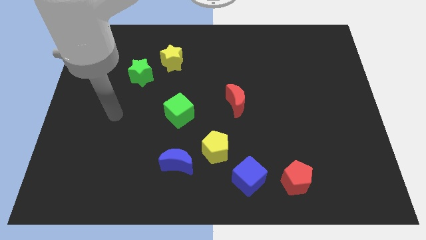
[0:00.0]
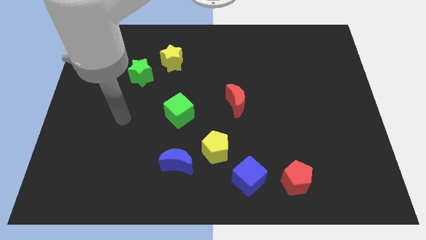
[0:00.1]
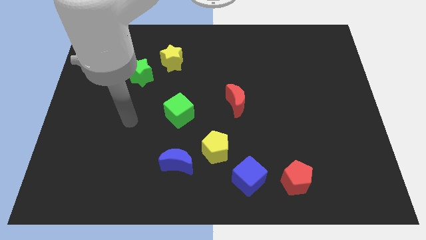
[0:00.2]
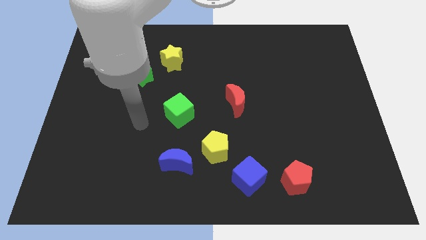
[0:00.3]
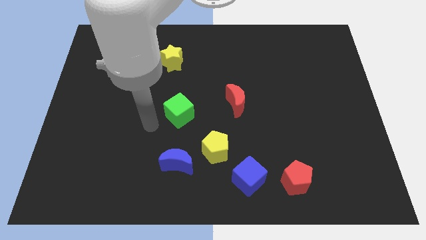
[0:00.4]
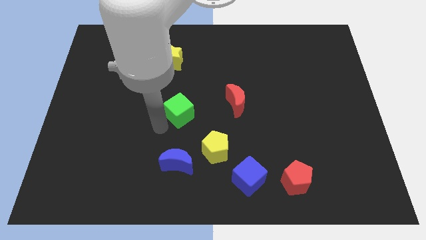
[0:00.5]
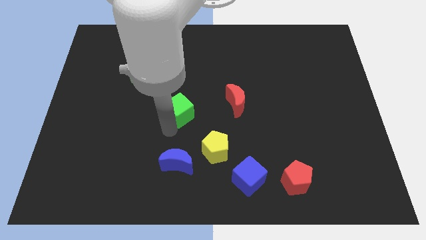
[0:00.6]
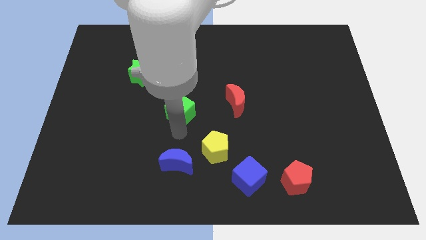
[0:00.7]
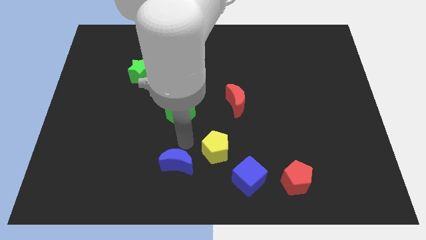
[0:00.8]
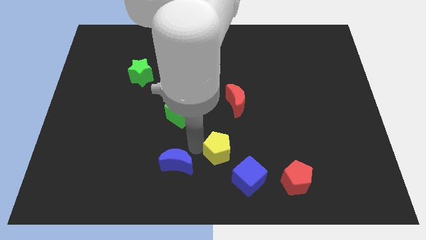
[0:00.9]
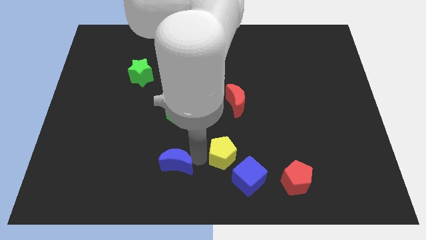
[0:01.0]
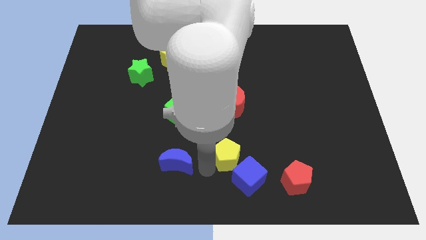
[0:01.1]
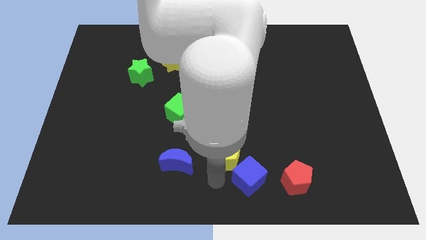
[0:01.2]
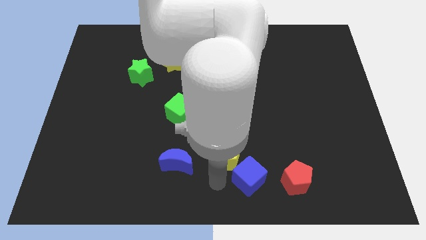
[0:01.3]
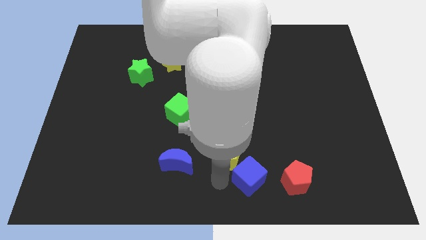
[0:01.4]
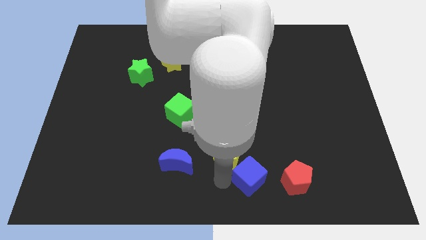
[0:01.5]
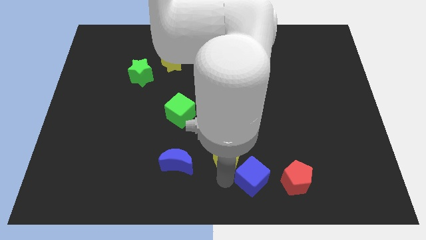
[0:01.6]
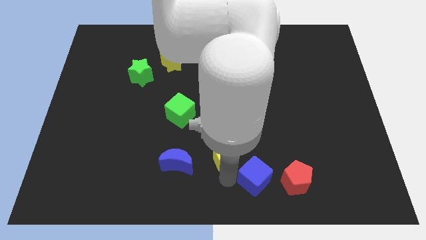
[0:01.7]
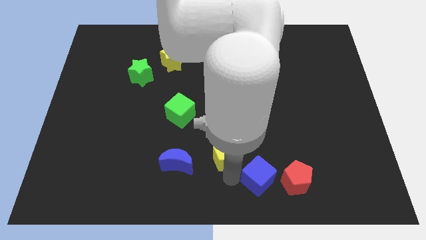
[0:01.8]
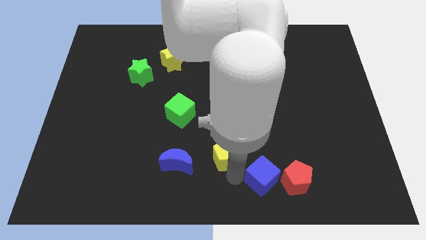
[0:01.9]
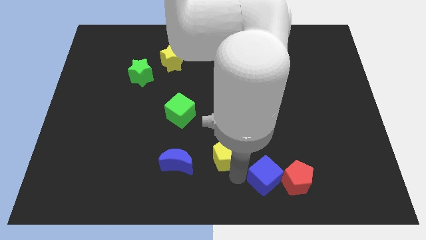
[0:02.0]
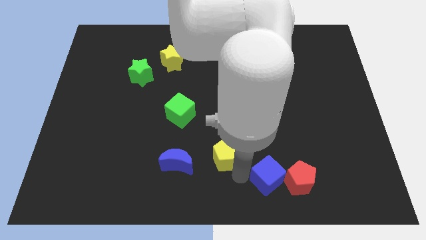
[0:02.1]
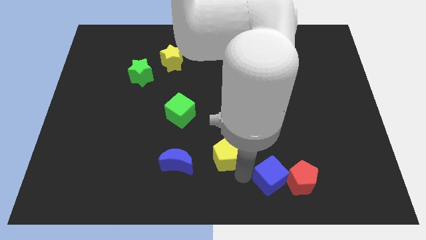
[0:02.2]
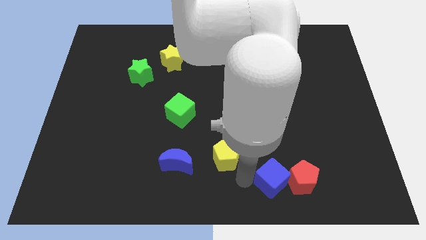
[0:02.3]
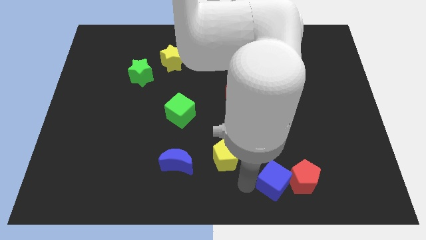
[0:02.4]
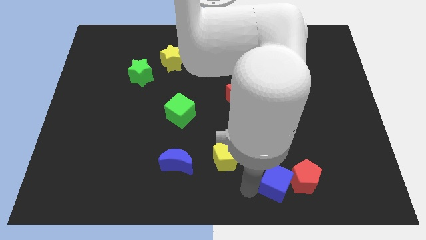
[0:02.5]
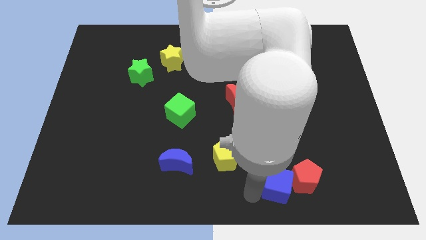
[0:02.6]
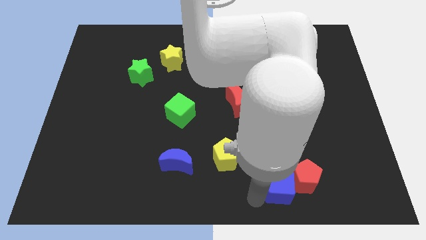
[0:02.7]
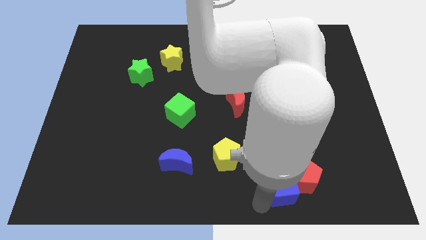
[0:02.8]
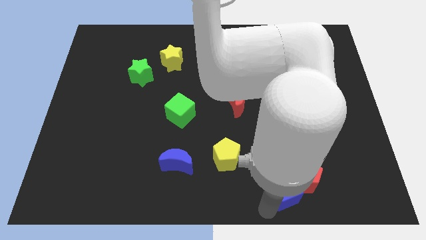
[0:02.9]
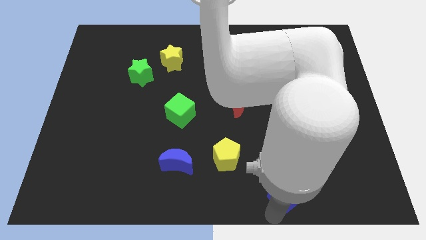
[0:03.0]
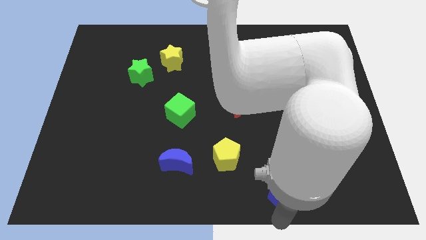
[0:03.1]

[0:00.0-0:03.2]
slightly move the blue cube right

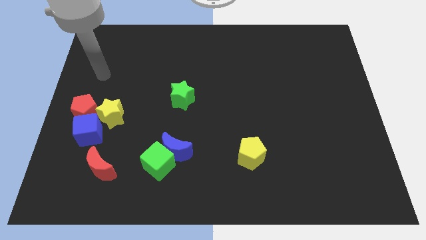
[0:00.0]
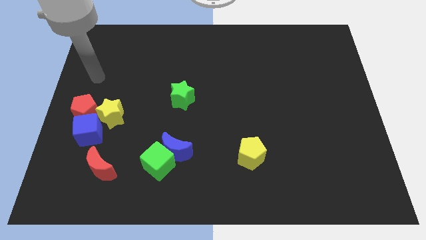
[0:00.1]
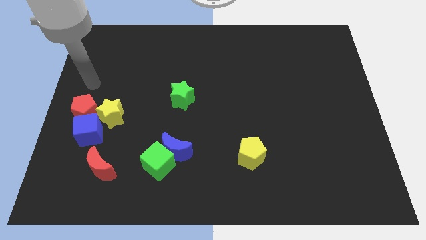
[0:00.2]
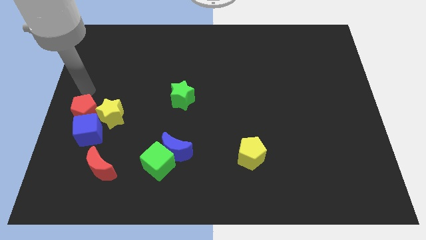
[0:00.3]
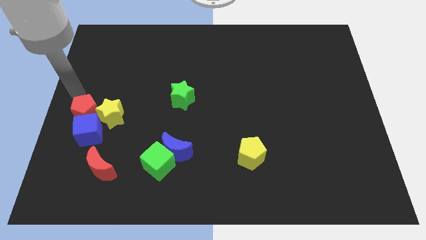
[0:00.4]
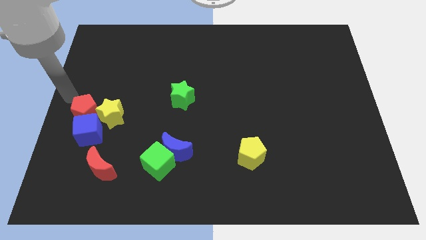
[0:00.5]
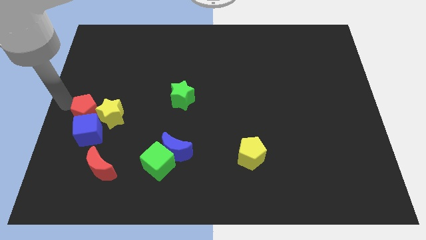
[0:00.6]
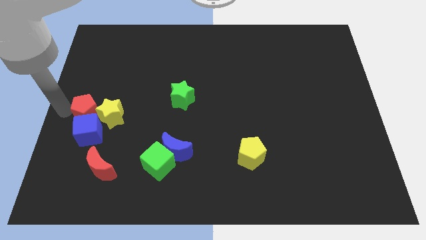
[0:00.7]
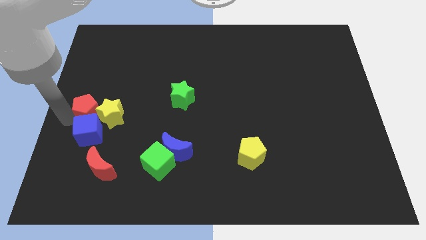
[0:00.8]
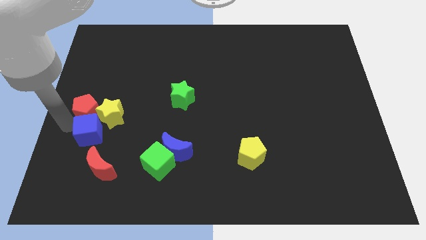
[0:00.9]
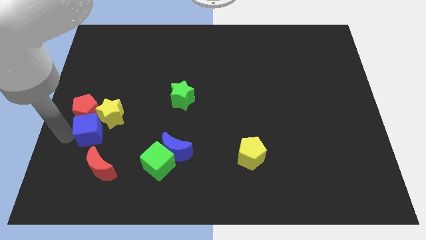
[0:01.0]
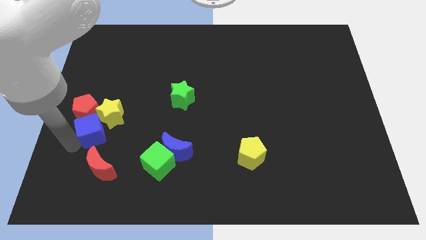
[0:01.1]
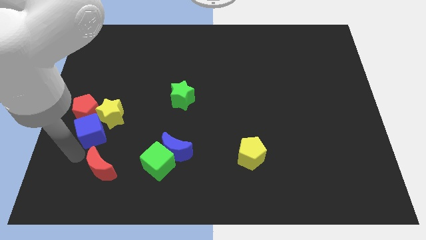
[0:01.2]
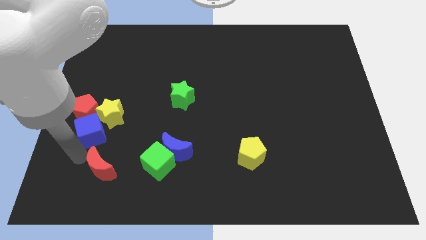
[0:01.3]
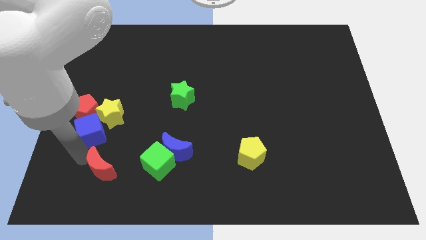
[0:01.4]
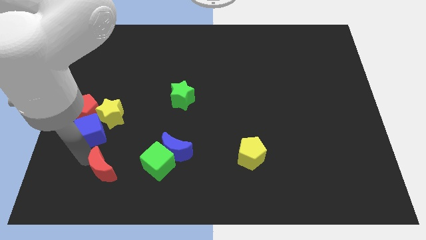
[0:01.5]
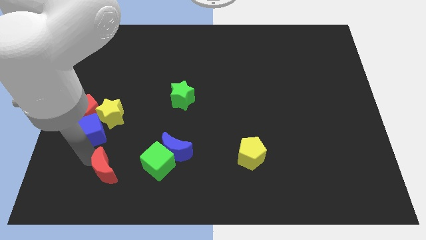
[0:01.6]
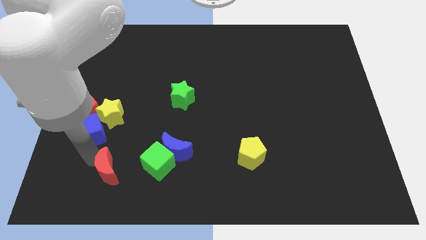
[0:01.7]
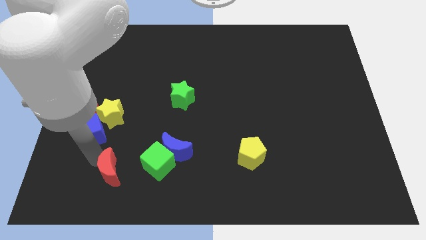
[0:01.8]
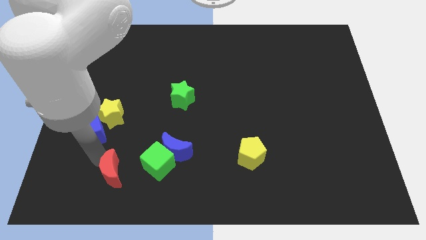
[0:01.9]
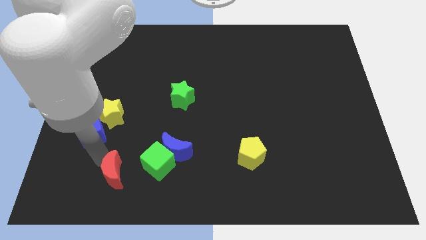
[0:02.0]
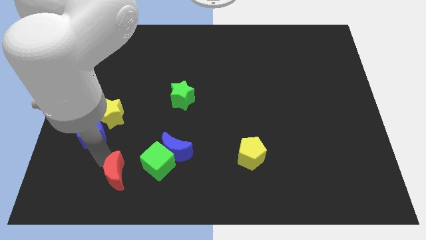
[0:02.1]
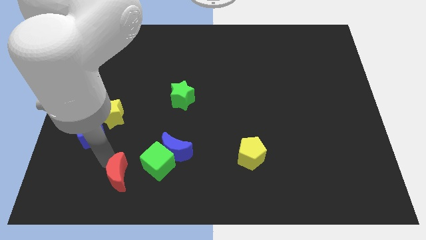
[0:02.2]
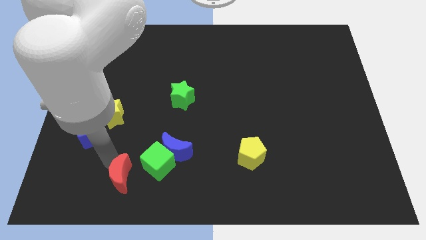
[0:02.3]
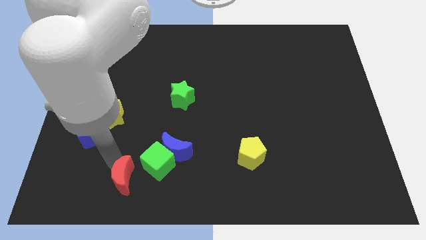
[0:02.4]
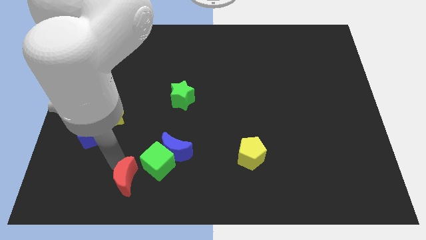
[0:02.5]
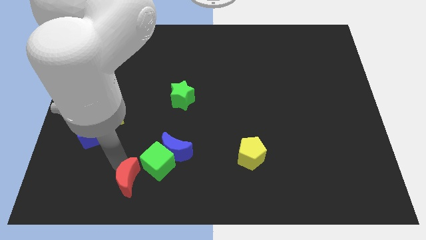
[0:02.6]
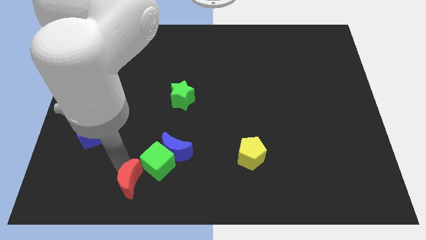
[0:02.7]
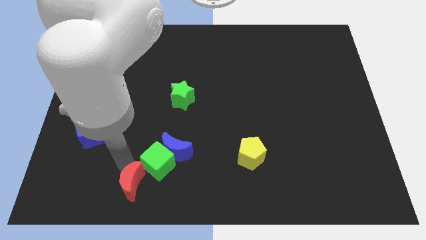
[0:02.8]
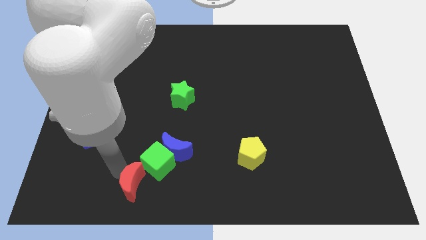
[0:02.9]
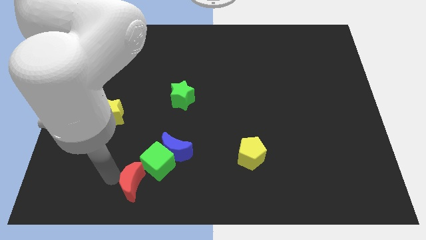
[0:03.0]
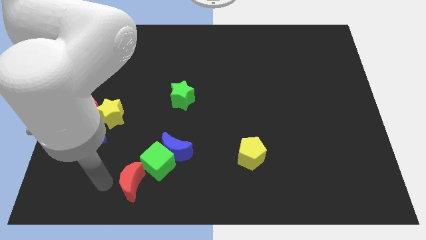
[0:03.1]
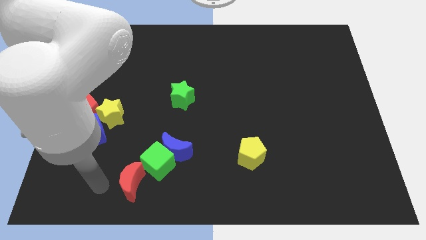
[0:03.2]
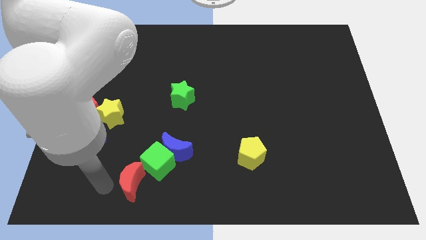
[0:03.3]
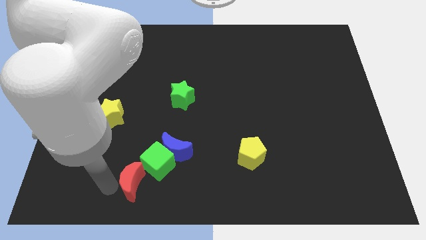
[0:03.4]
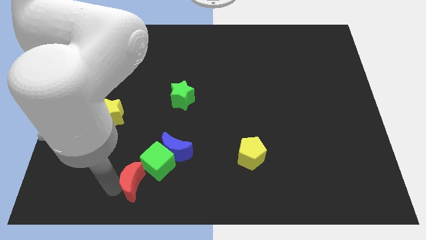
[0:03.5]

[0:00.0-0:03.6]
move the red moon a little bit to the right

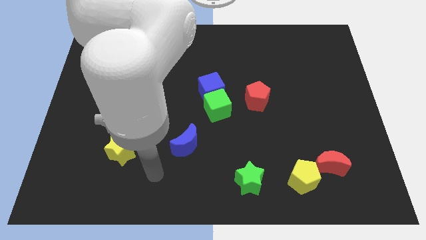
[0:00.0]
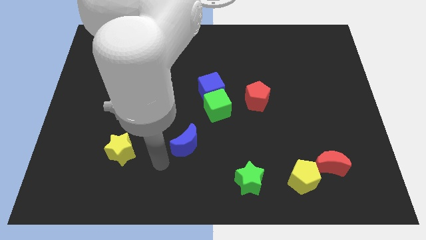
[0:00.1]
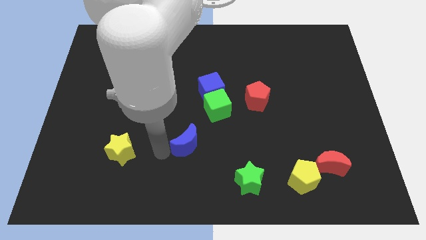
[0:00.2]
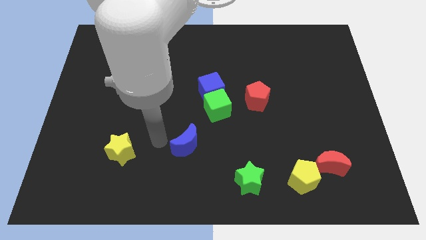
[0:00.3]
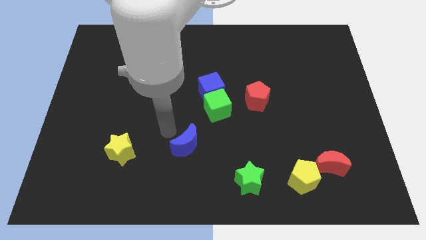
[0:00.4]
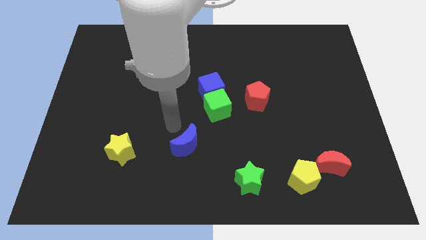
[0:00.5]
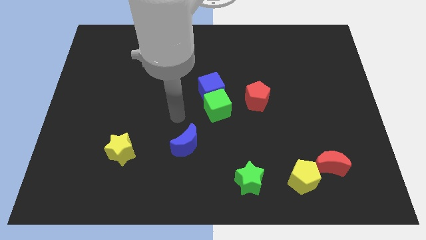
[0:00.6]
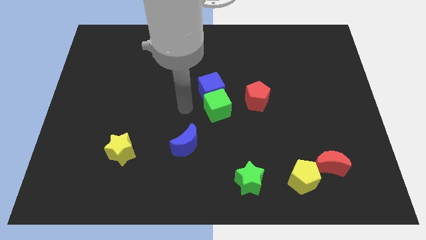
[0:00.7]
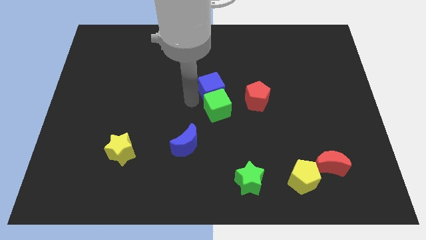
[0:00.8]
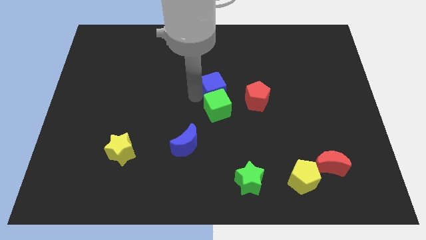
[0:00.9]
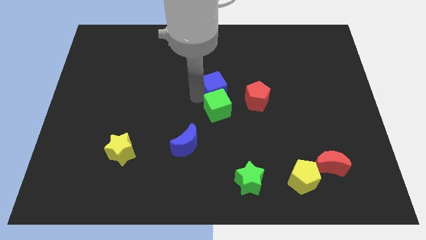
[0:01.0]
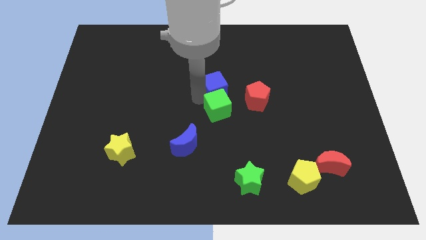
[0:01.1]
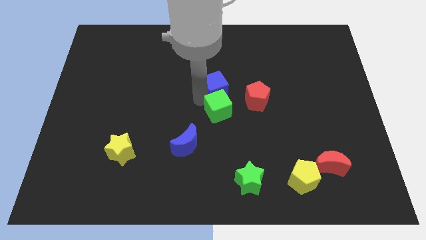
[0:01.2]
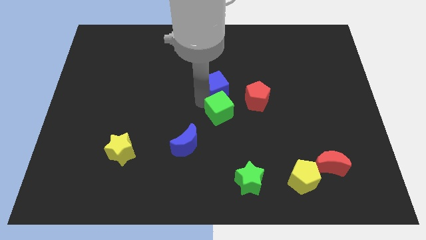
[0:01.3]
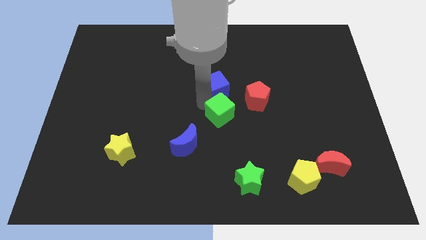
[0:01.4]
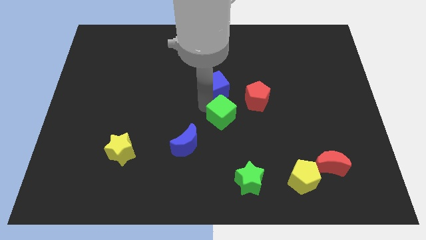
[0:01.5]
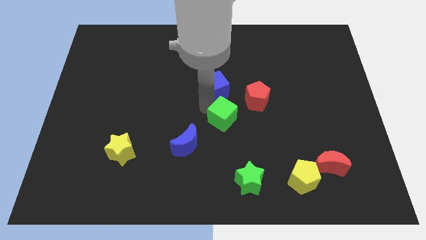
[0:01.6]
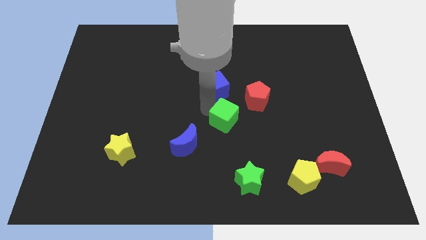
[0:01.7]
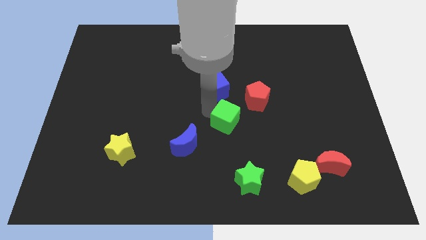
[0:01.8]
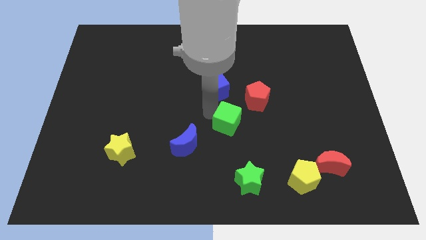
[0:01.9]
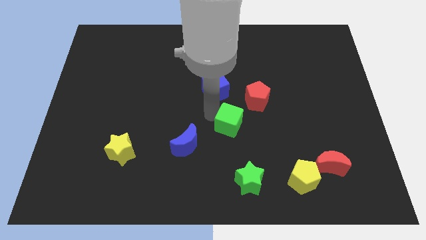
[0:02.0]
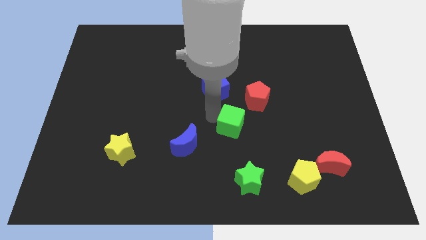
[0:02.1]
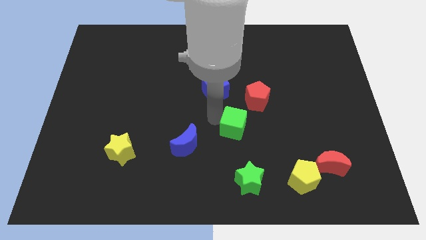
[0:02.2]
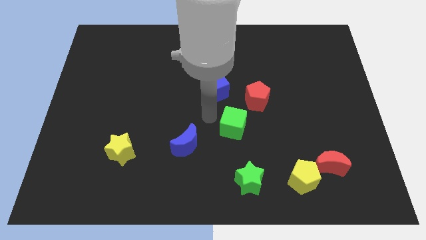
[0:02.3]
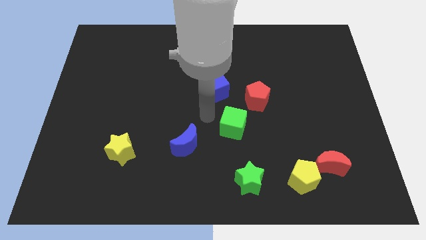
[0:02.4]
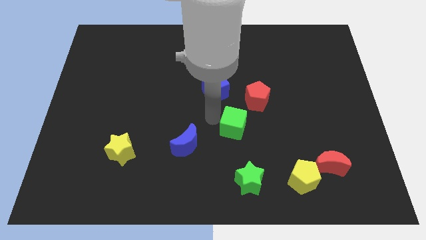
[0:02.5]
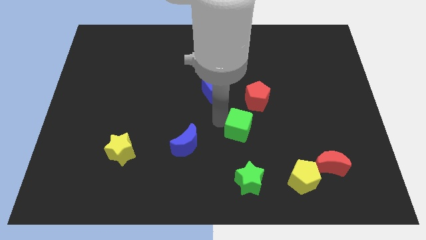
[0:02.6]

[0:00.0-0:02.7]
push the green cube a little diagonally down and to the right
